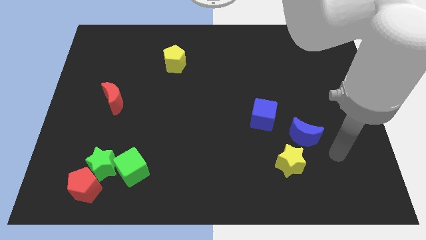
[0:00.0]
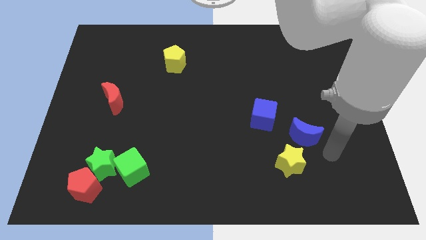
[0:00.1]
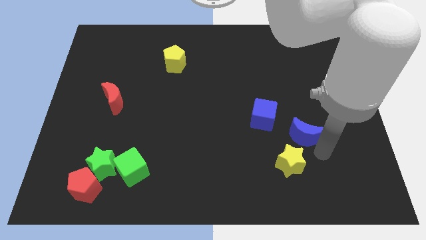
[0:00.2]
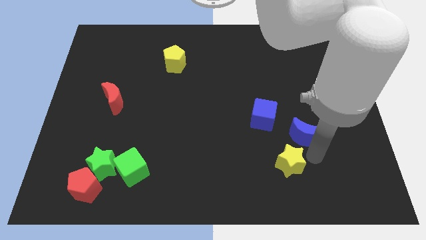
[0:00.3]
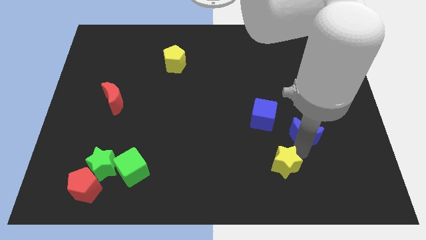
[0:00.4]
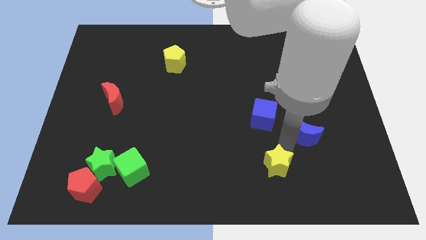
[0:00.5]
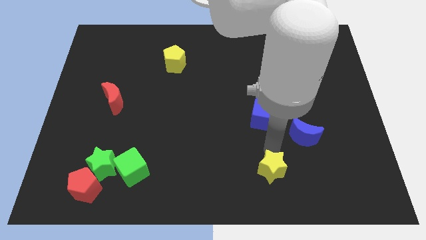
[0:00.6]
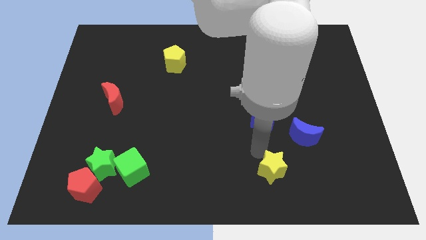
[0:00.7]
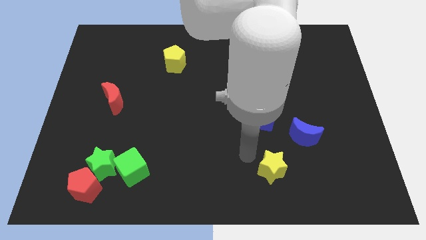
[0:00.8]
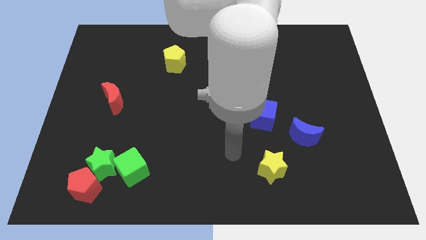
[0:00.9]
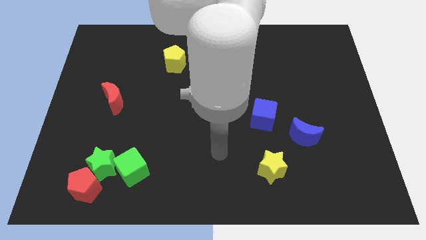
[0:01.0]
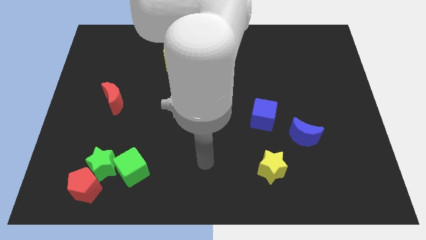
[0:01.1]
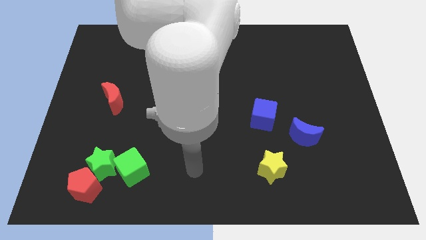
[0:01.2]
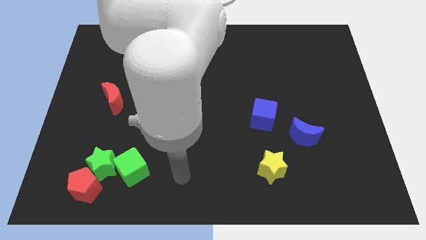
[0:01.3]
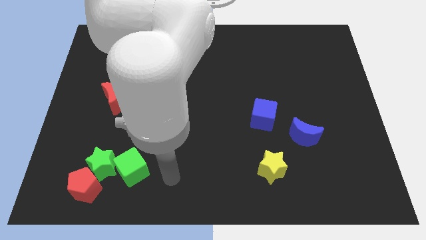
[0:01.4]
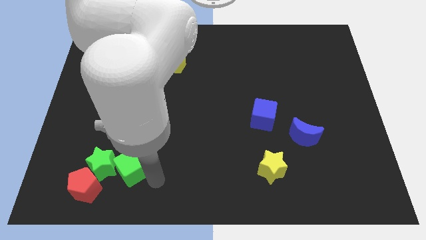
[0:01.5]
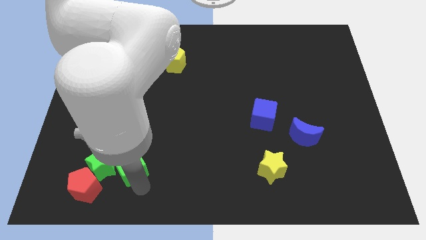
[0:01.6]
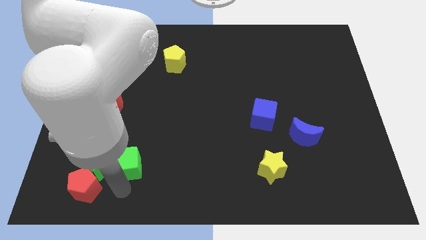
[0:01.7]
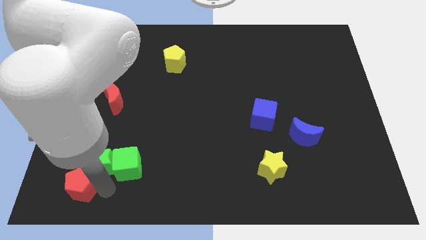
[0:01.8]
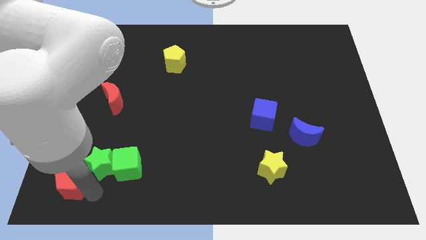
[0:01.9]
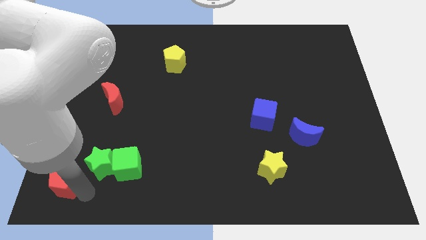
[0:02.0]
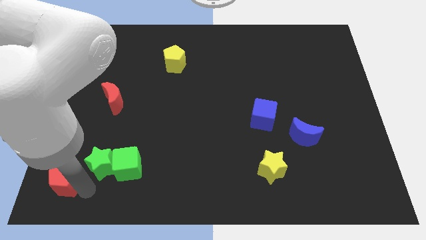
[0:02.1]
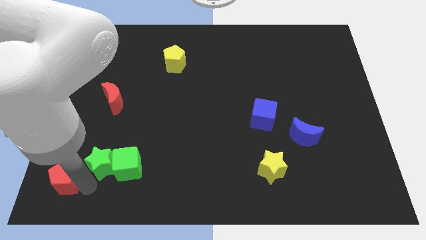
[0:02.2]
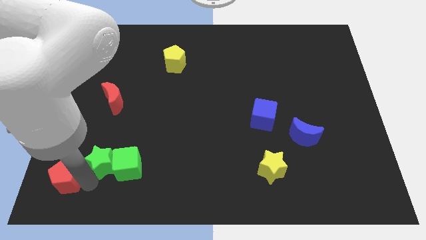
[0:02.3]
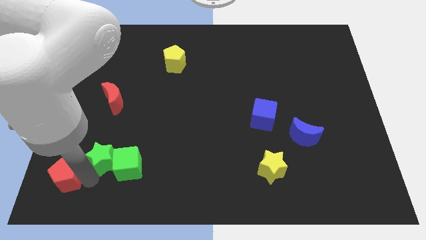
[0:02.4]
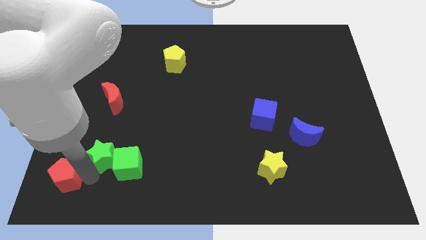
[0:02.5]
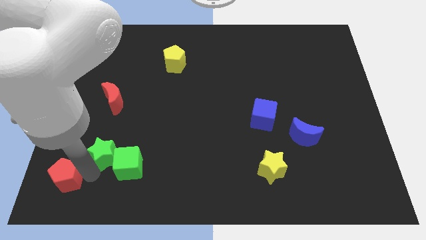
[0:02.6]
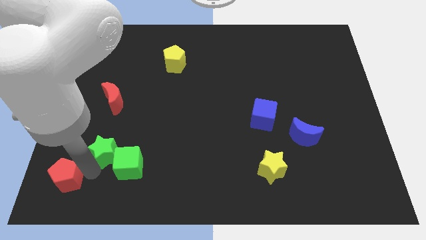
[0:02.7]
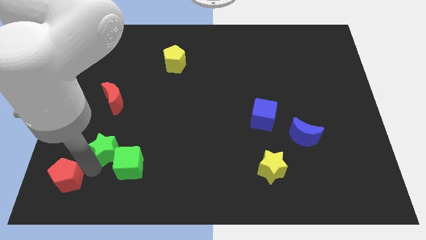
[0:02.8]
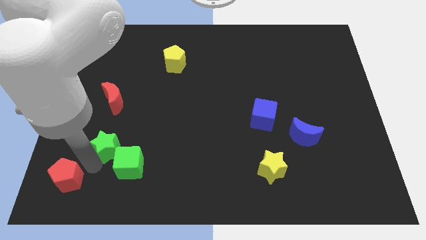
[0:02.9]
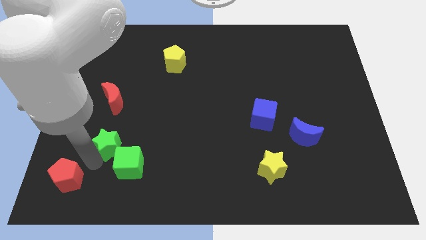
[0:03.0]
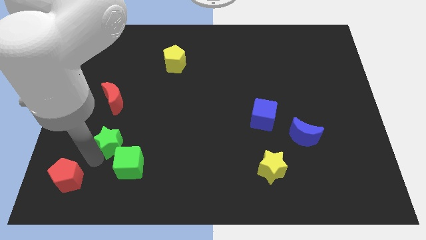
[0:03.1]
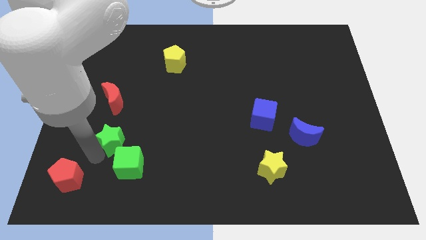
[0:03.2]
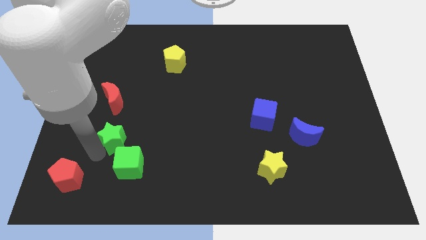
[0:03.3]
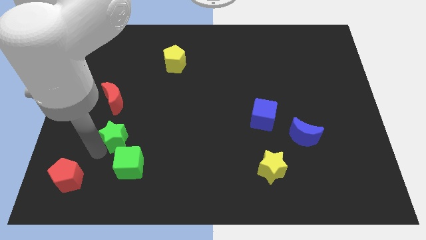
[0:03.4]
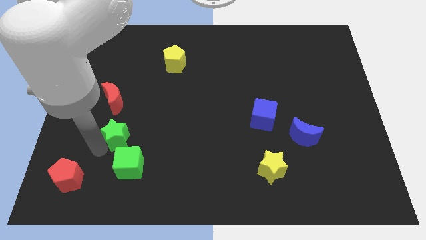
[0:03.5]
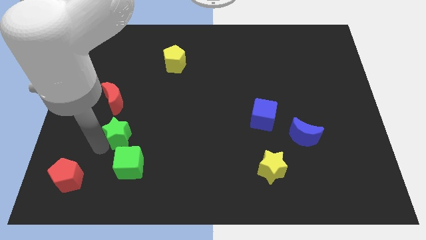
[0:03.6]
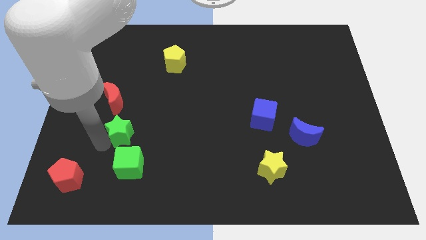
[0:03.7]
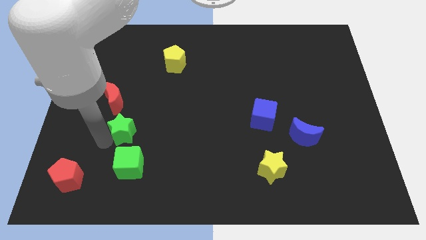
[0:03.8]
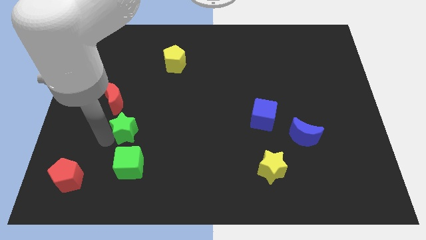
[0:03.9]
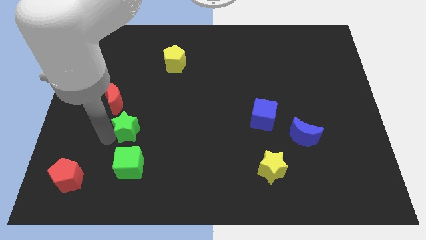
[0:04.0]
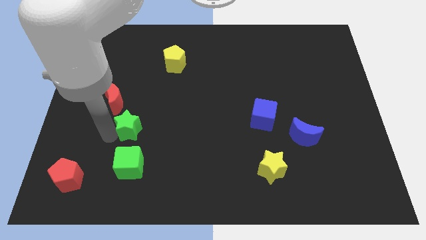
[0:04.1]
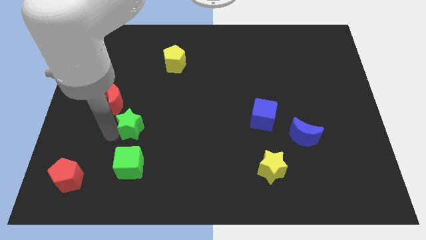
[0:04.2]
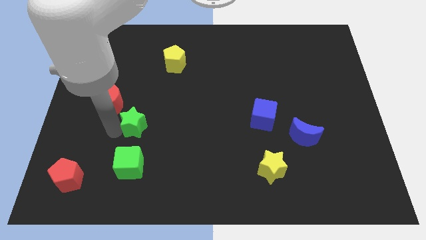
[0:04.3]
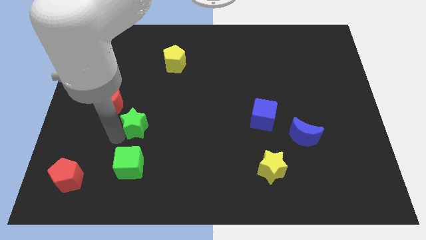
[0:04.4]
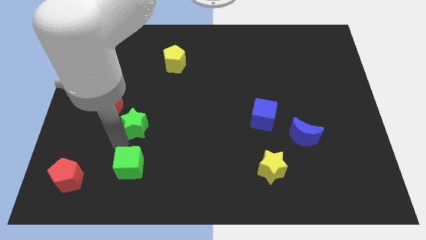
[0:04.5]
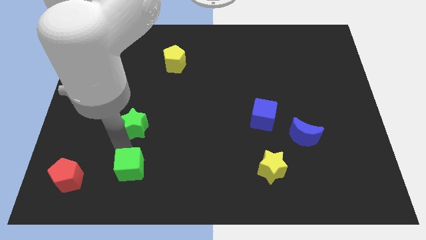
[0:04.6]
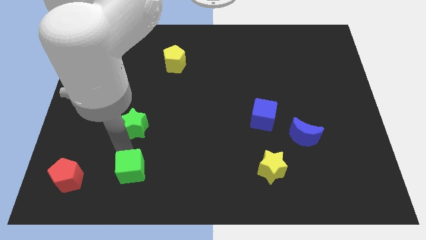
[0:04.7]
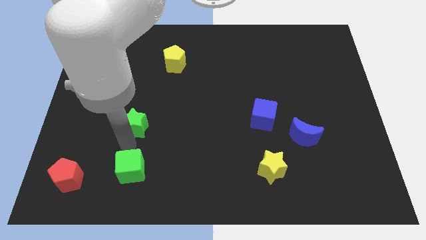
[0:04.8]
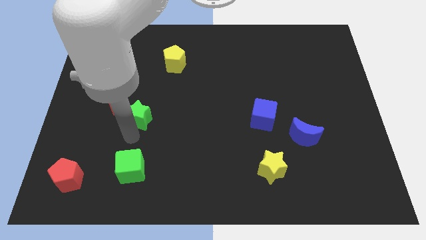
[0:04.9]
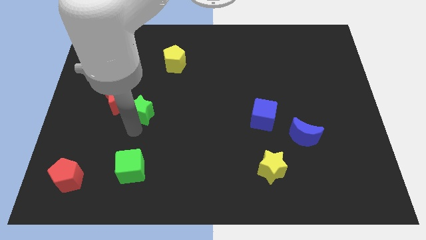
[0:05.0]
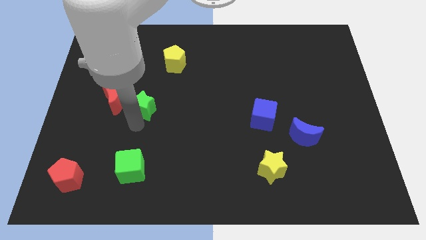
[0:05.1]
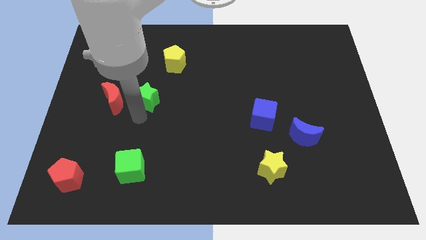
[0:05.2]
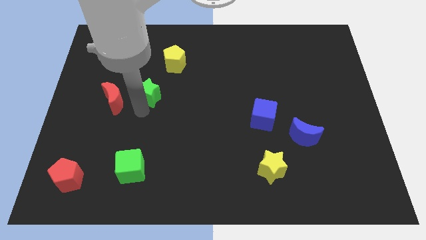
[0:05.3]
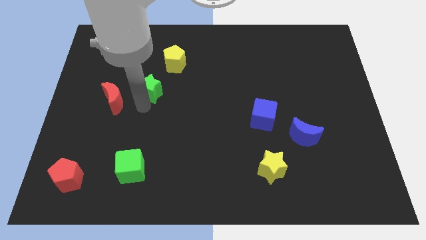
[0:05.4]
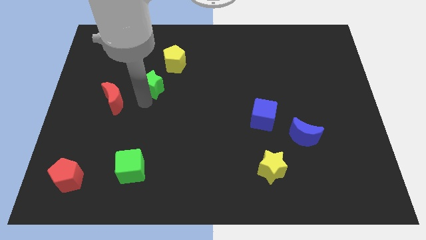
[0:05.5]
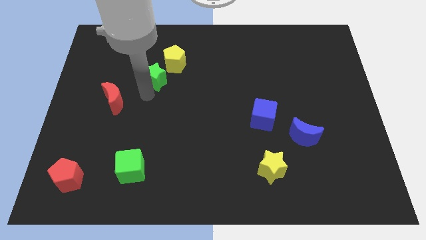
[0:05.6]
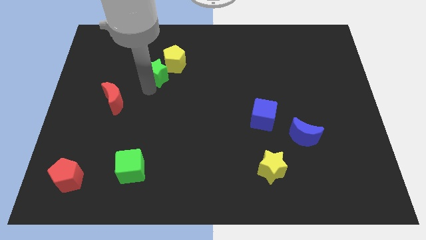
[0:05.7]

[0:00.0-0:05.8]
push the green star to the yellow pentagon

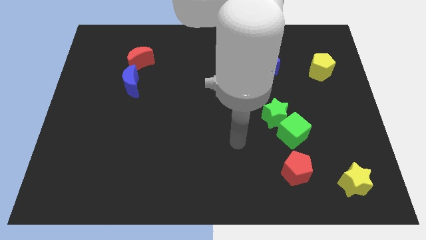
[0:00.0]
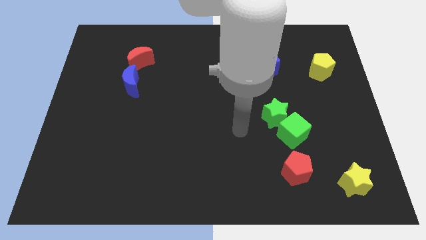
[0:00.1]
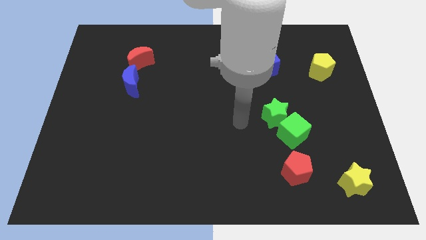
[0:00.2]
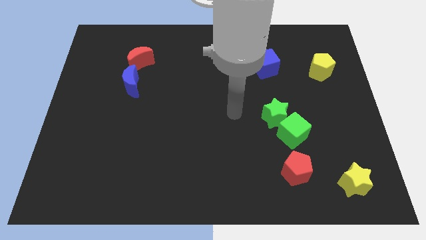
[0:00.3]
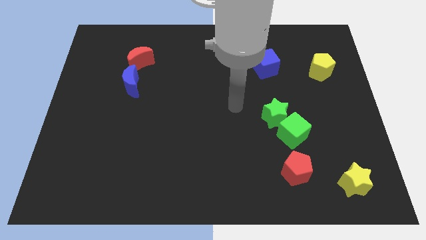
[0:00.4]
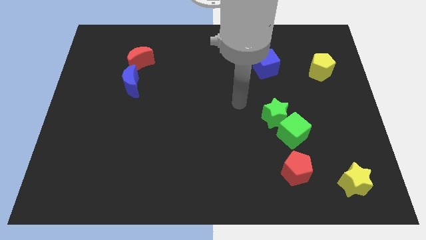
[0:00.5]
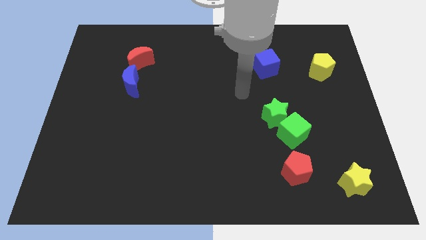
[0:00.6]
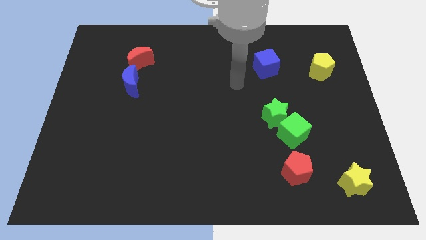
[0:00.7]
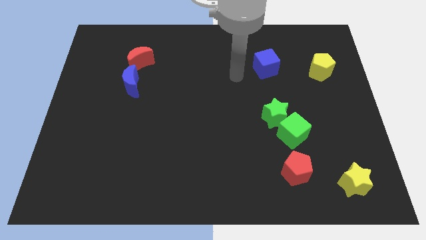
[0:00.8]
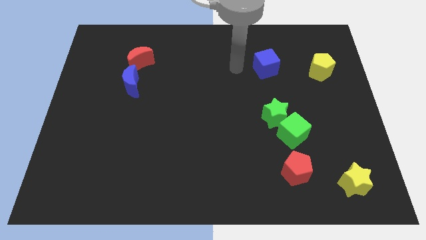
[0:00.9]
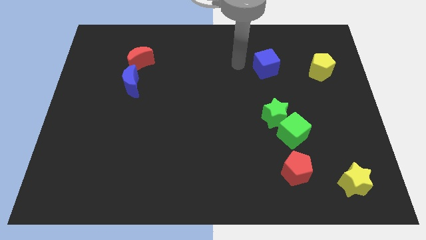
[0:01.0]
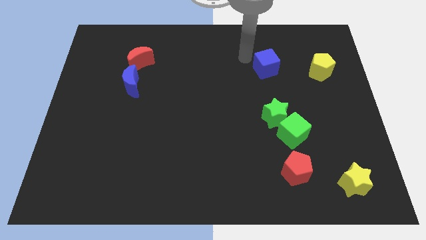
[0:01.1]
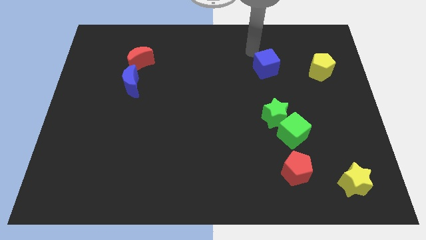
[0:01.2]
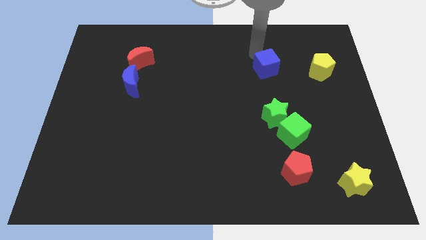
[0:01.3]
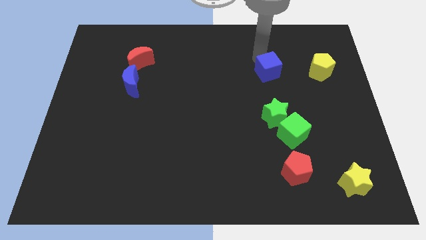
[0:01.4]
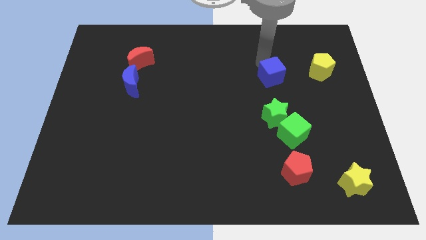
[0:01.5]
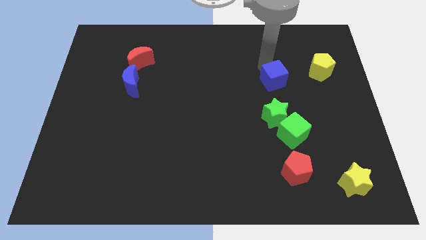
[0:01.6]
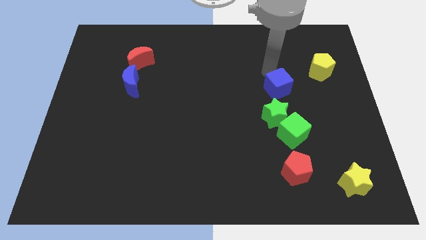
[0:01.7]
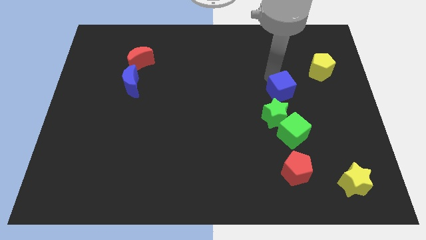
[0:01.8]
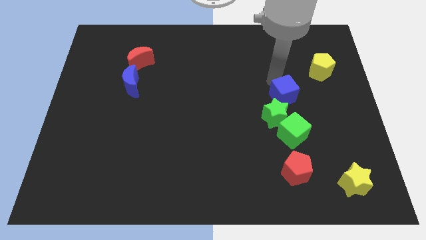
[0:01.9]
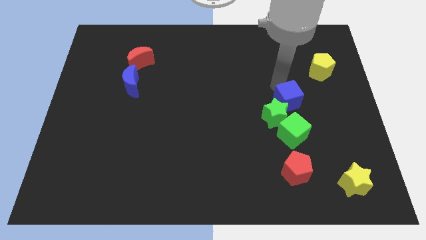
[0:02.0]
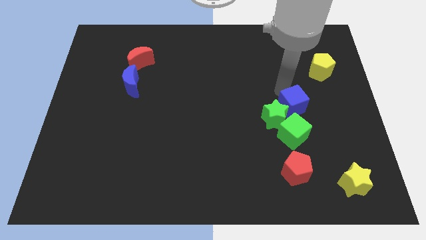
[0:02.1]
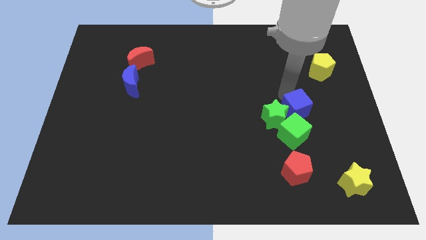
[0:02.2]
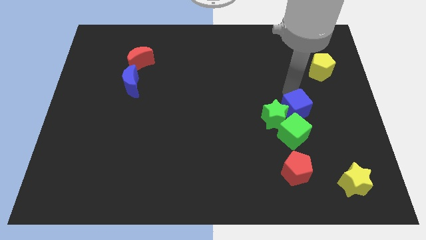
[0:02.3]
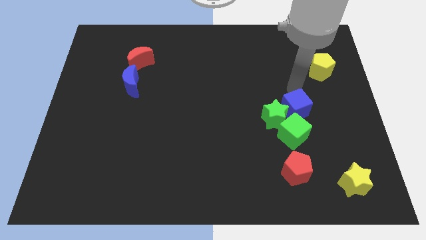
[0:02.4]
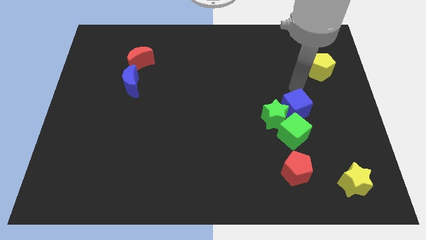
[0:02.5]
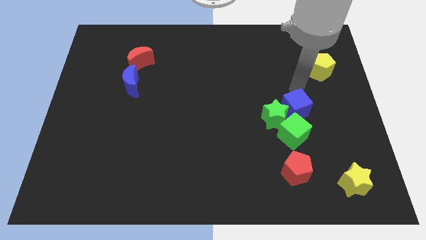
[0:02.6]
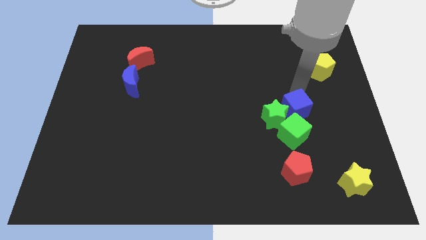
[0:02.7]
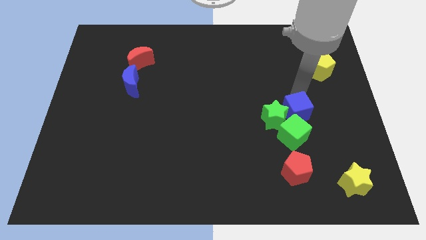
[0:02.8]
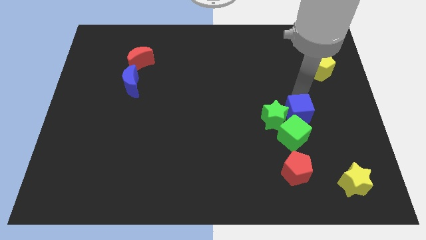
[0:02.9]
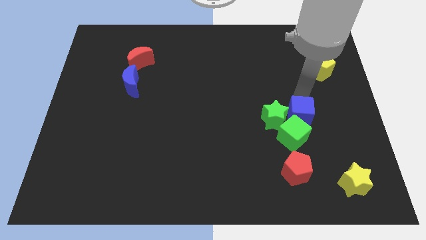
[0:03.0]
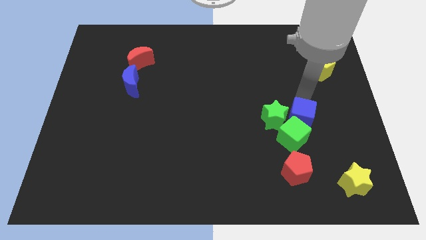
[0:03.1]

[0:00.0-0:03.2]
slide the blue cube next to the green cube
